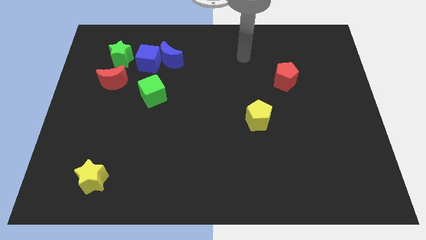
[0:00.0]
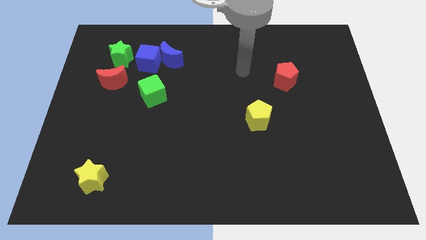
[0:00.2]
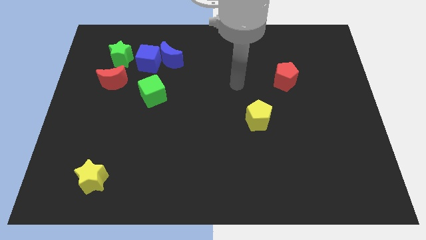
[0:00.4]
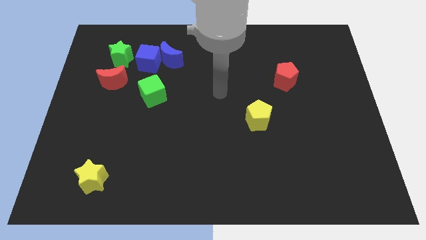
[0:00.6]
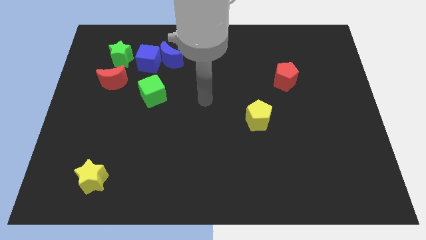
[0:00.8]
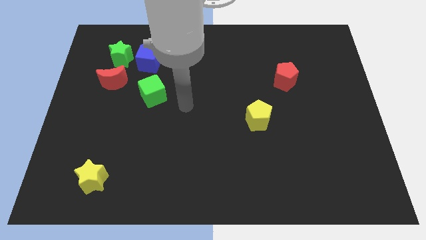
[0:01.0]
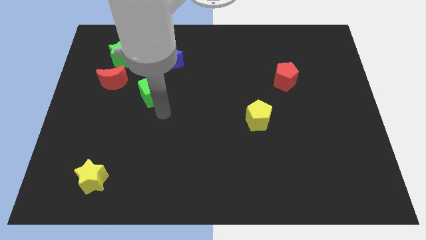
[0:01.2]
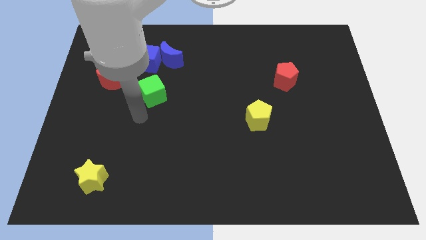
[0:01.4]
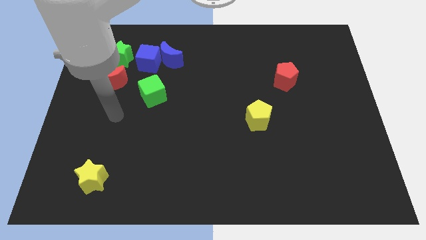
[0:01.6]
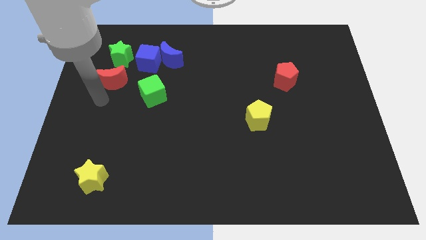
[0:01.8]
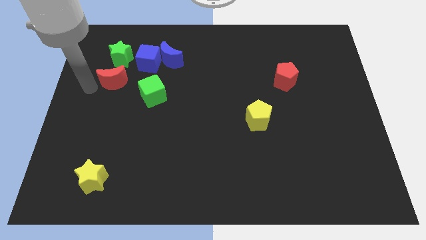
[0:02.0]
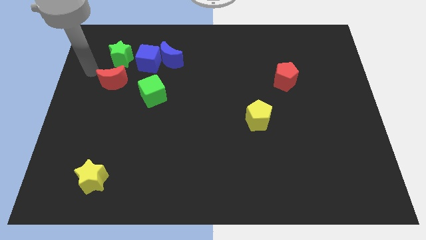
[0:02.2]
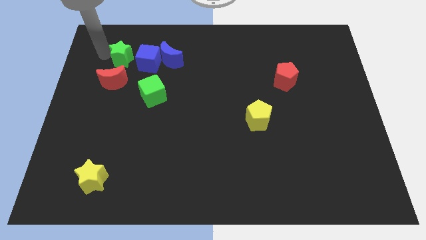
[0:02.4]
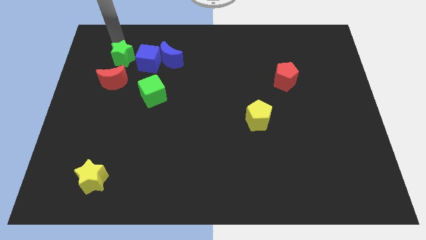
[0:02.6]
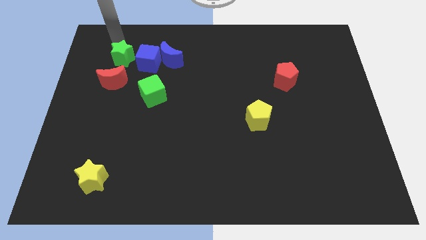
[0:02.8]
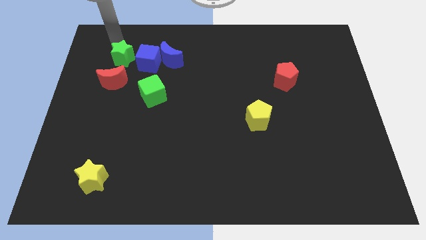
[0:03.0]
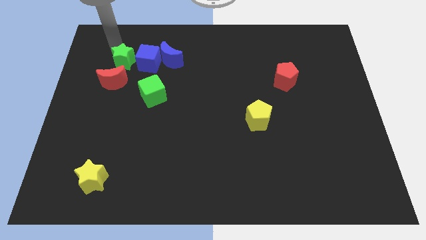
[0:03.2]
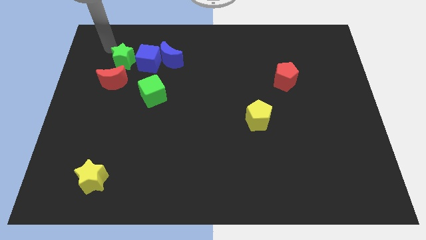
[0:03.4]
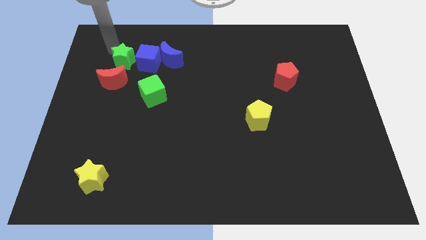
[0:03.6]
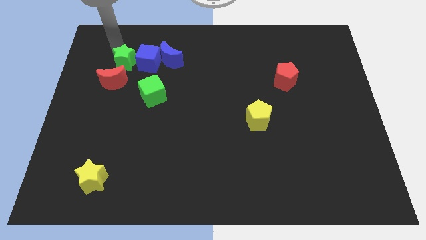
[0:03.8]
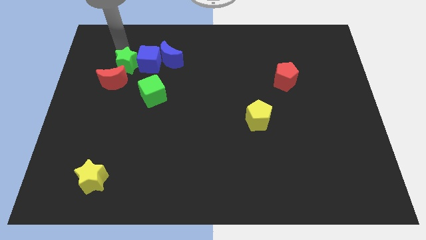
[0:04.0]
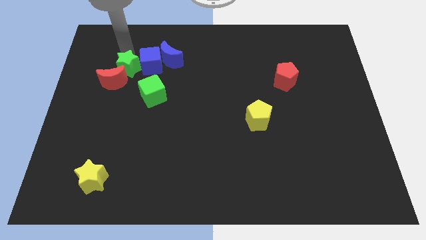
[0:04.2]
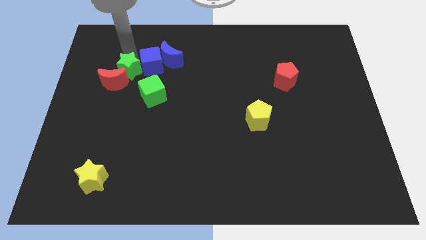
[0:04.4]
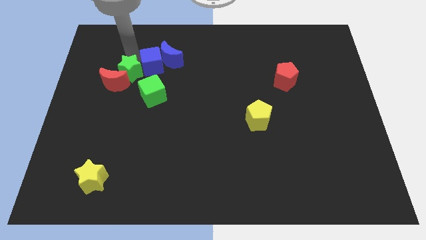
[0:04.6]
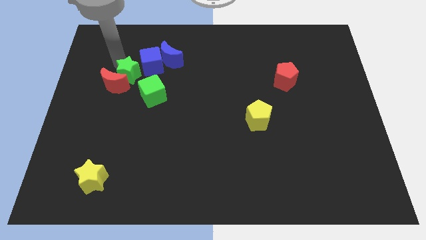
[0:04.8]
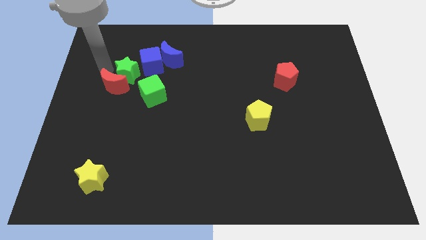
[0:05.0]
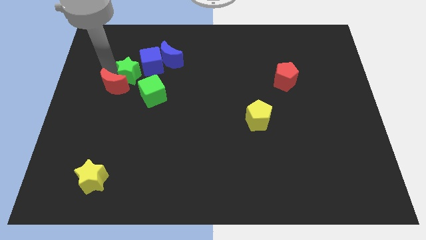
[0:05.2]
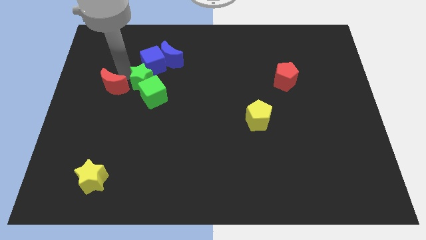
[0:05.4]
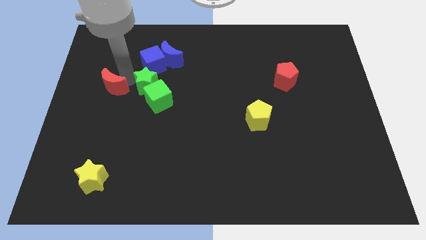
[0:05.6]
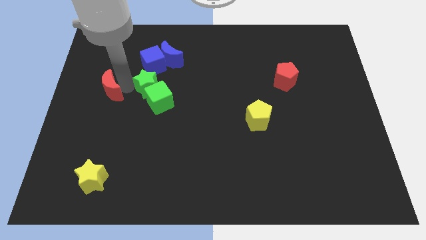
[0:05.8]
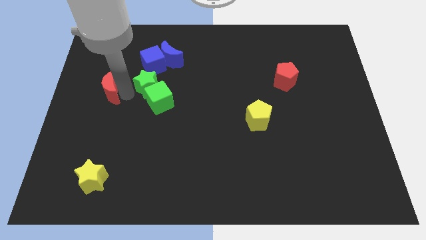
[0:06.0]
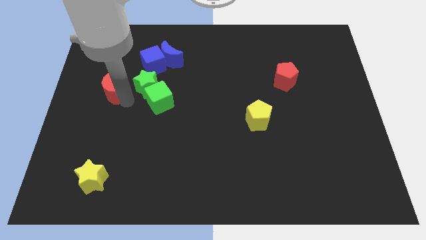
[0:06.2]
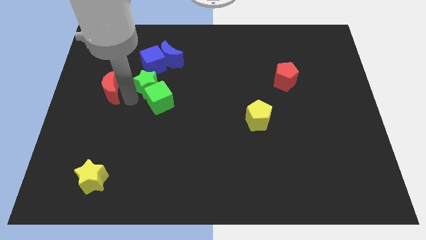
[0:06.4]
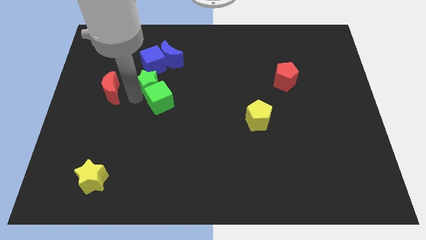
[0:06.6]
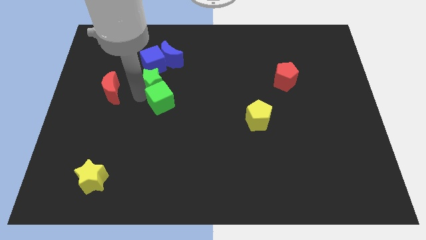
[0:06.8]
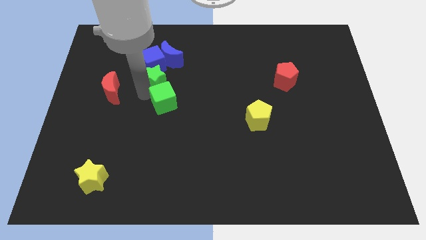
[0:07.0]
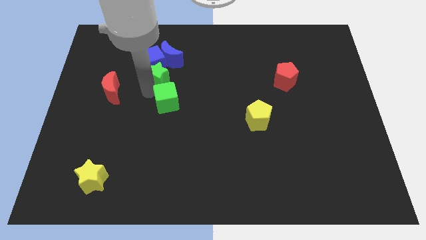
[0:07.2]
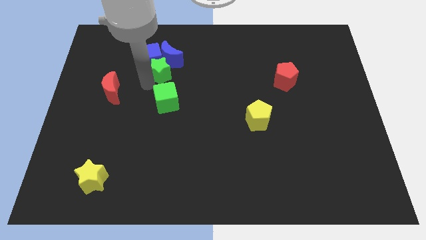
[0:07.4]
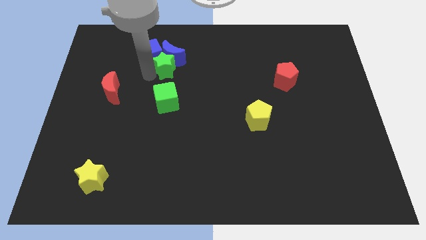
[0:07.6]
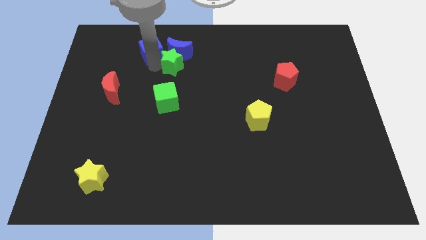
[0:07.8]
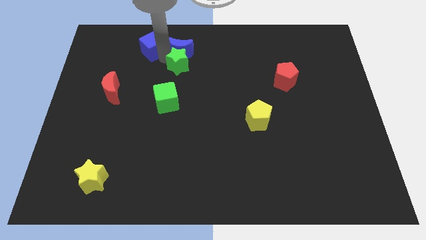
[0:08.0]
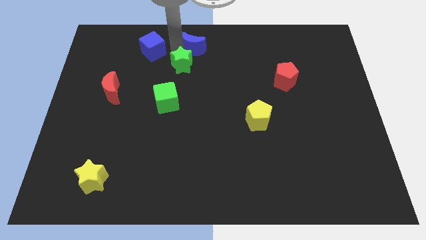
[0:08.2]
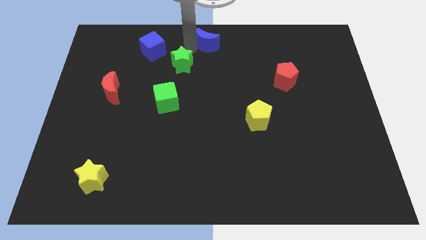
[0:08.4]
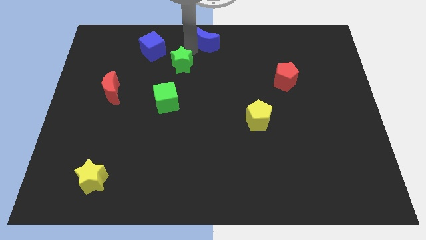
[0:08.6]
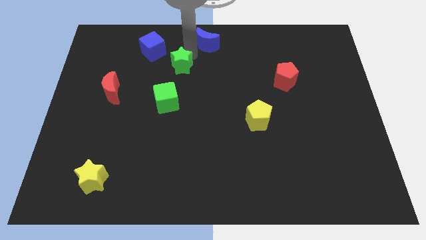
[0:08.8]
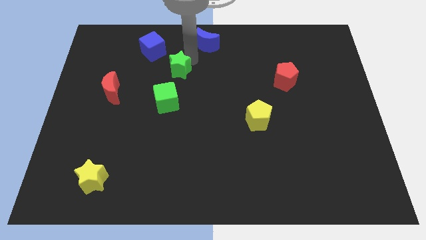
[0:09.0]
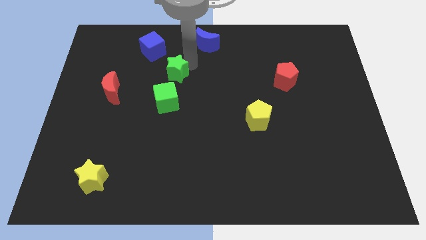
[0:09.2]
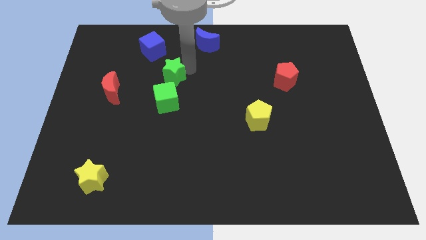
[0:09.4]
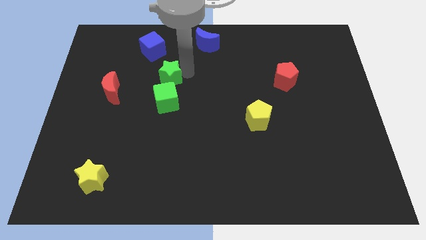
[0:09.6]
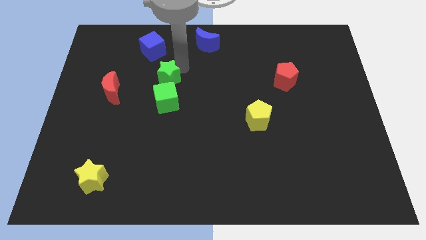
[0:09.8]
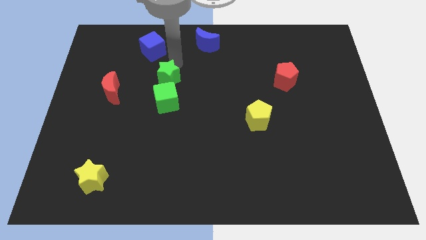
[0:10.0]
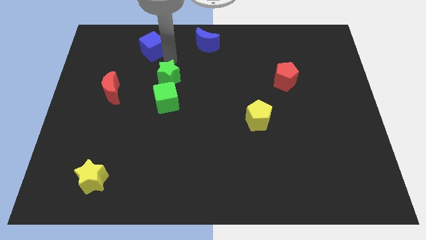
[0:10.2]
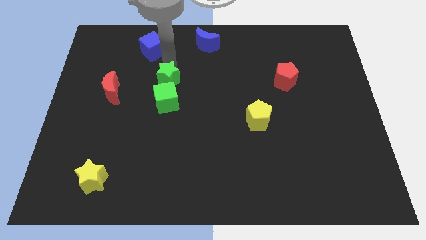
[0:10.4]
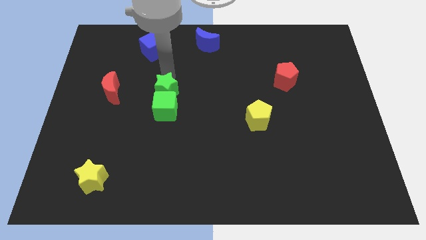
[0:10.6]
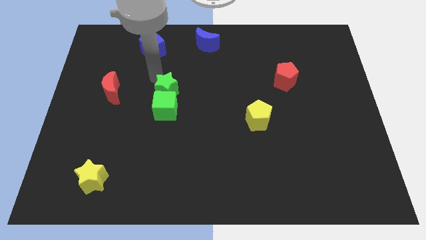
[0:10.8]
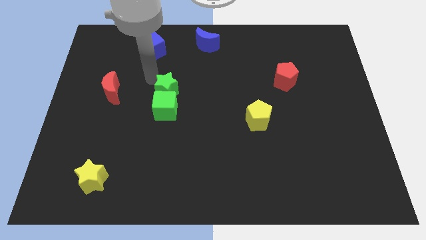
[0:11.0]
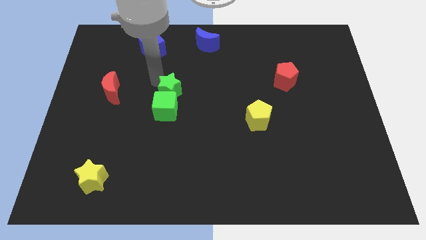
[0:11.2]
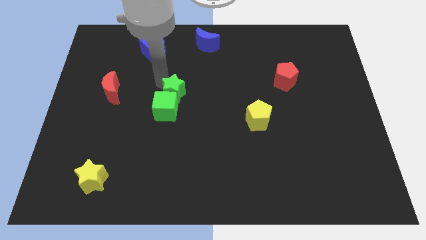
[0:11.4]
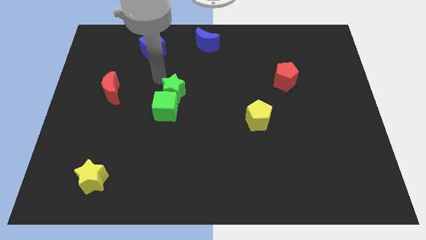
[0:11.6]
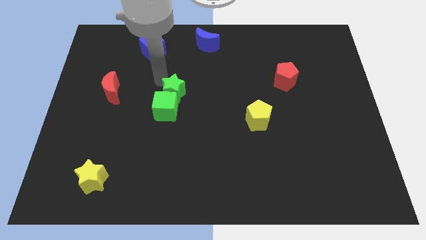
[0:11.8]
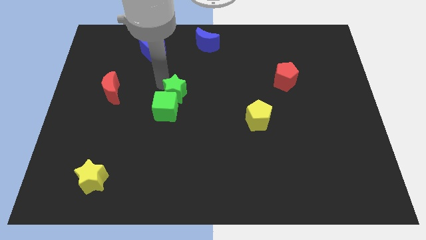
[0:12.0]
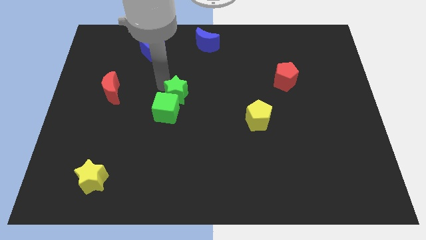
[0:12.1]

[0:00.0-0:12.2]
slide the green star diagonally down and to the right

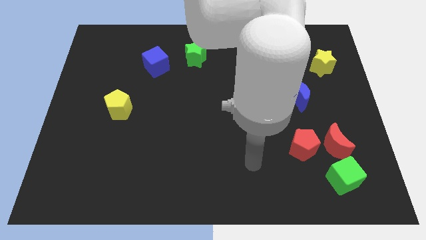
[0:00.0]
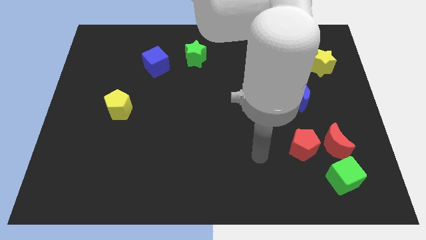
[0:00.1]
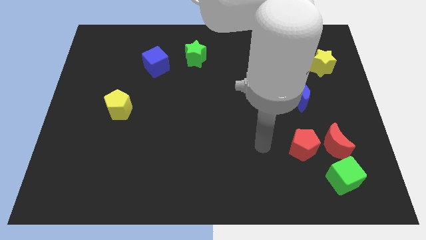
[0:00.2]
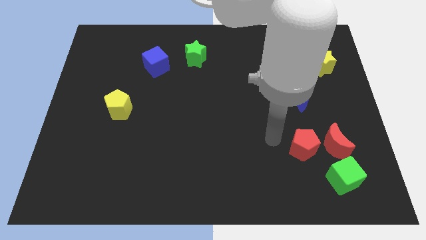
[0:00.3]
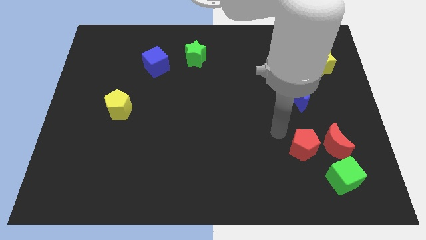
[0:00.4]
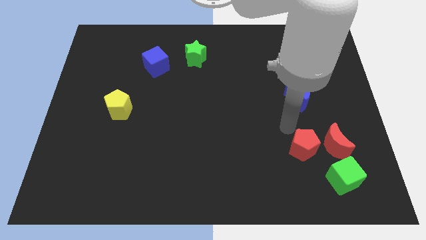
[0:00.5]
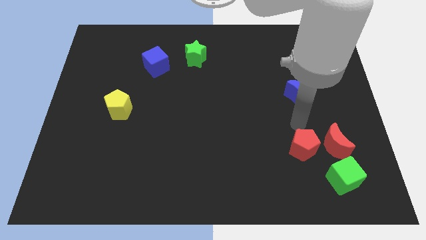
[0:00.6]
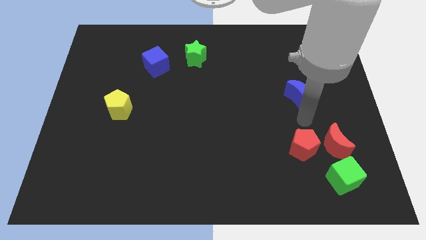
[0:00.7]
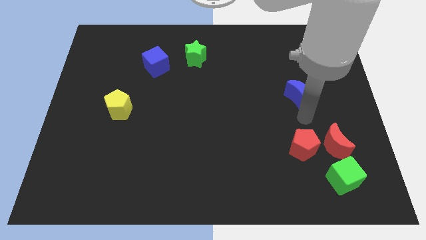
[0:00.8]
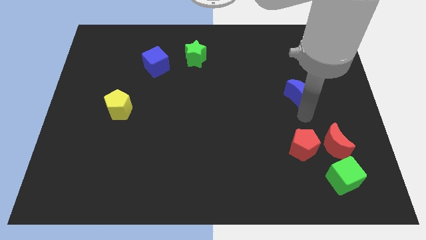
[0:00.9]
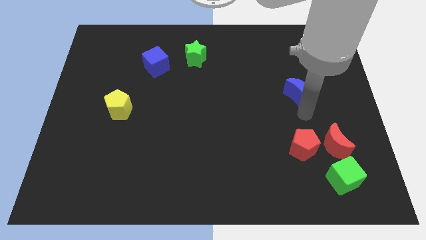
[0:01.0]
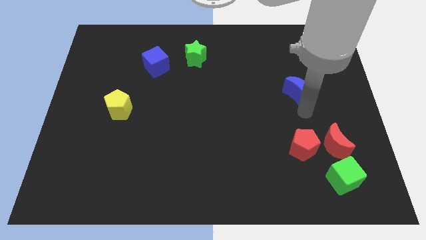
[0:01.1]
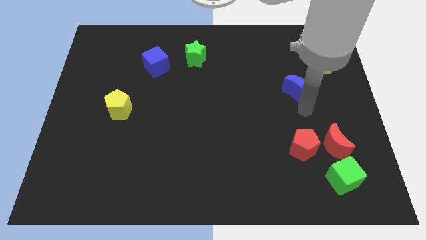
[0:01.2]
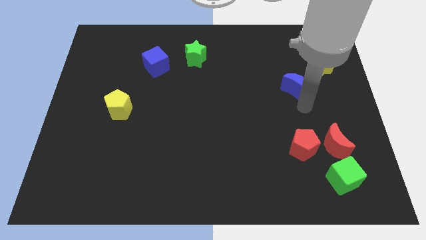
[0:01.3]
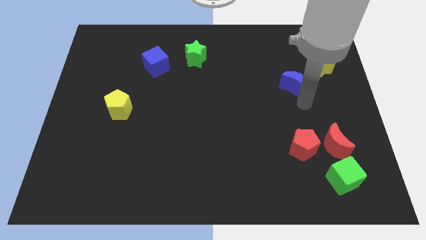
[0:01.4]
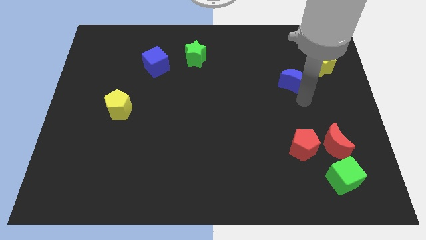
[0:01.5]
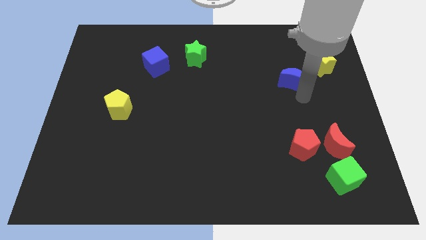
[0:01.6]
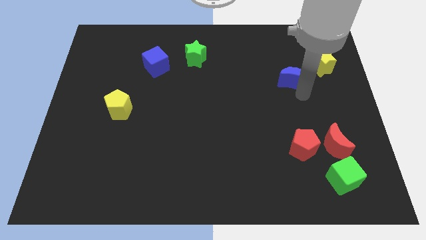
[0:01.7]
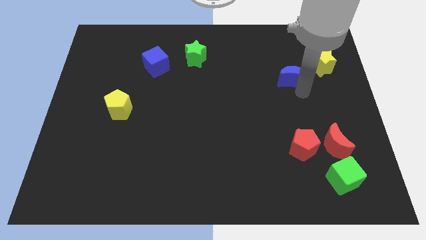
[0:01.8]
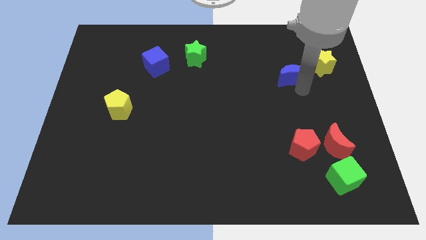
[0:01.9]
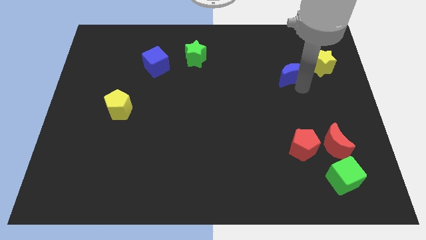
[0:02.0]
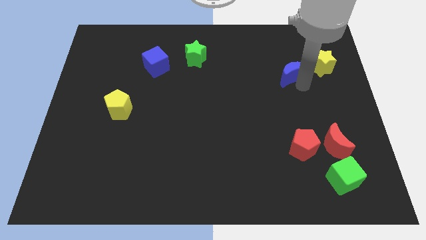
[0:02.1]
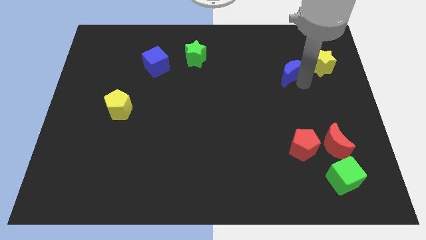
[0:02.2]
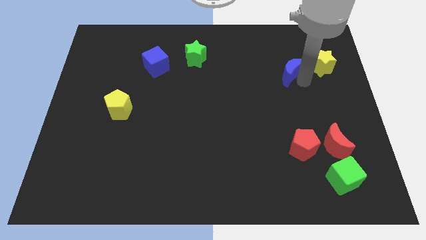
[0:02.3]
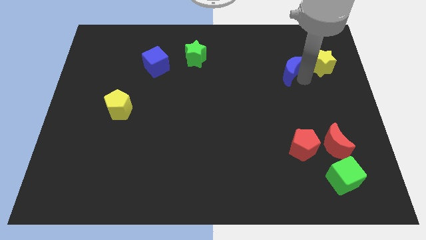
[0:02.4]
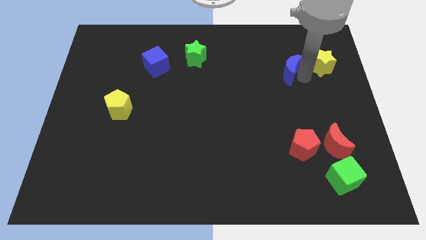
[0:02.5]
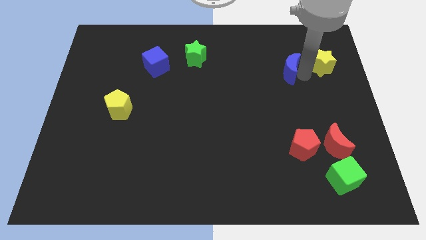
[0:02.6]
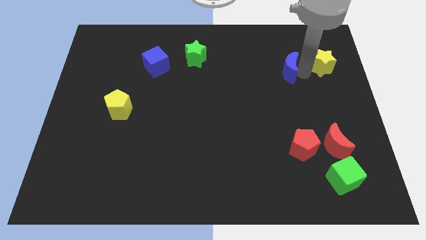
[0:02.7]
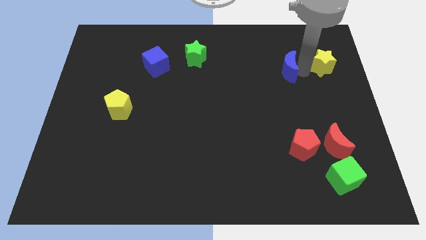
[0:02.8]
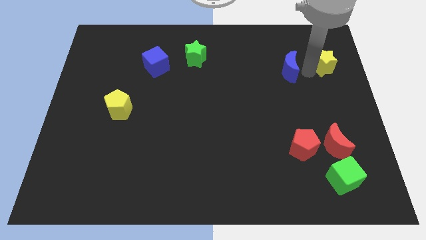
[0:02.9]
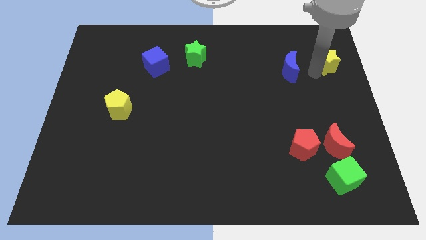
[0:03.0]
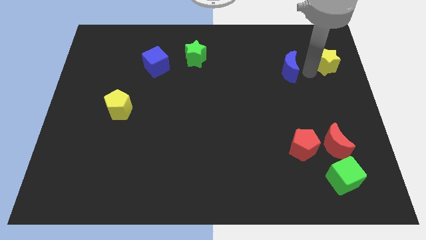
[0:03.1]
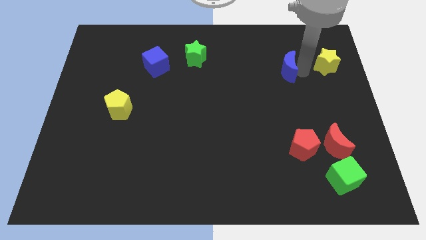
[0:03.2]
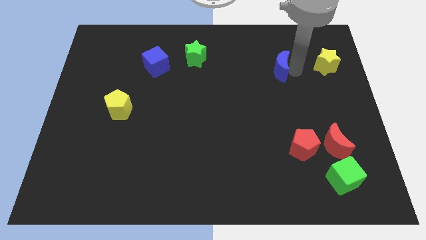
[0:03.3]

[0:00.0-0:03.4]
slide the blue moon upwards and left slightly
